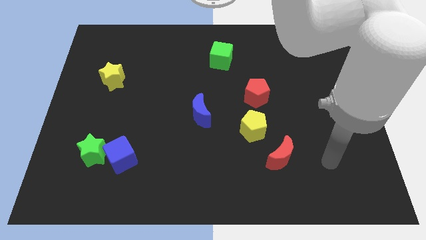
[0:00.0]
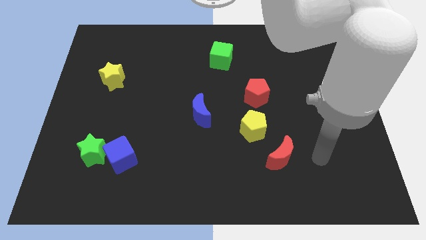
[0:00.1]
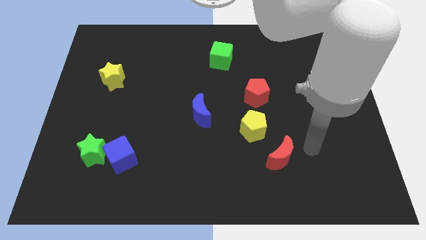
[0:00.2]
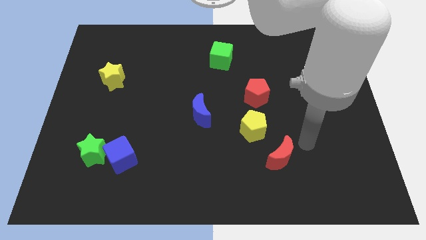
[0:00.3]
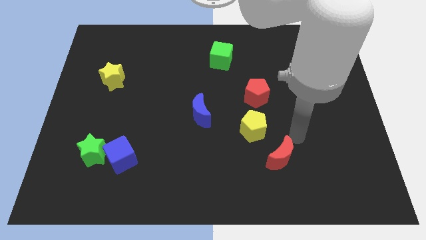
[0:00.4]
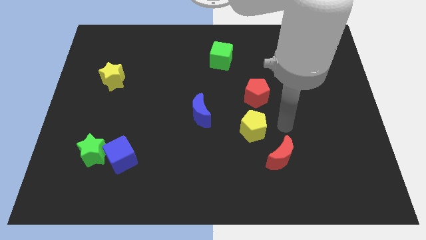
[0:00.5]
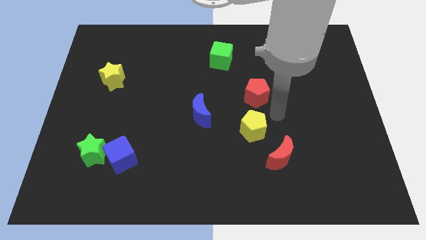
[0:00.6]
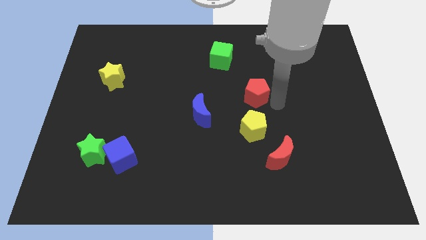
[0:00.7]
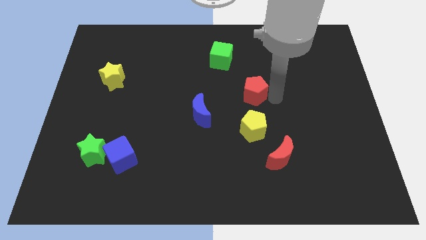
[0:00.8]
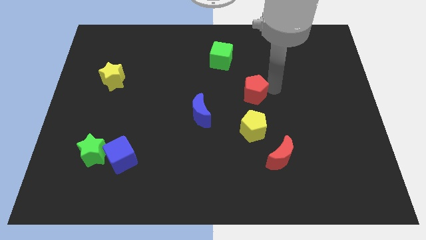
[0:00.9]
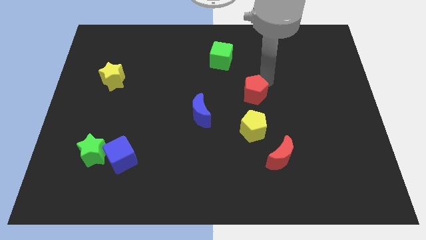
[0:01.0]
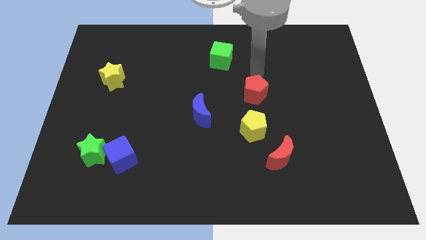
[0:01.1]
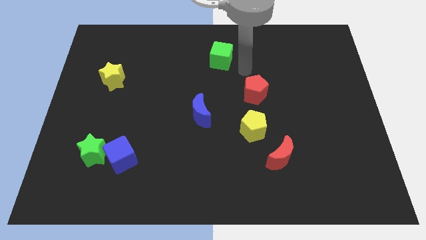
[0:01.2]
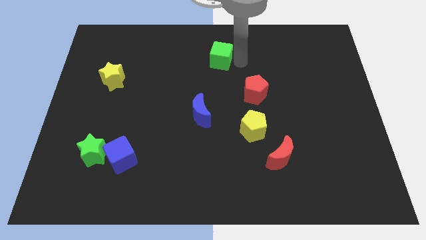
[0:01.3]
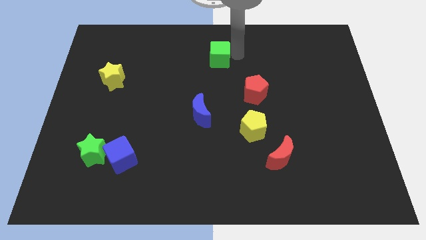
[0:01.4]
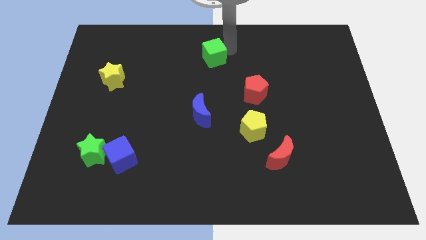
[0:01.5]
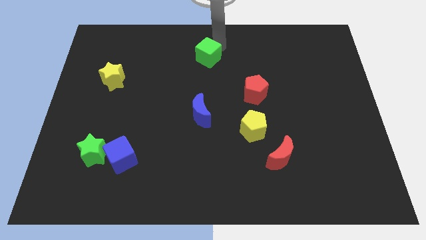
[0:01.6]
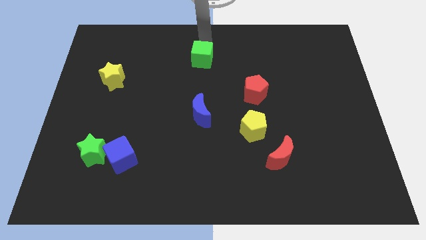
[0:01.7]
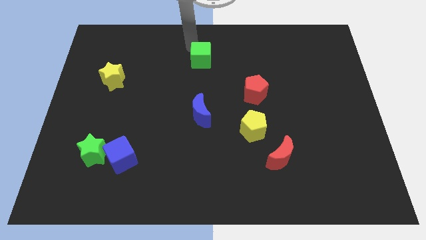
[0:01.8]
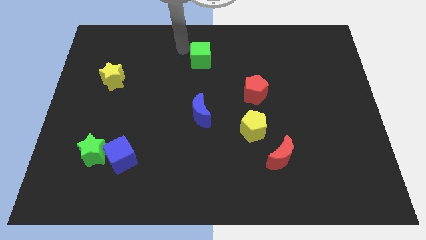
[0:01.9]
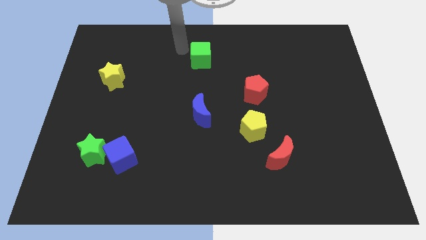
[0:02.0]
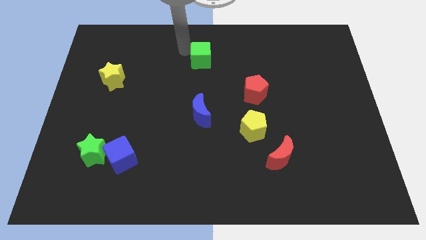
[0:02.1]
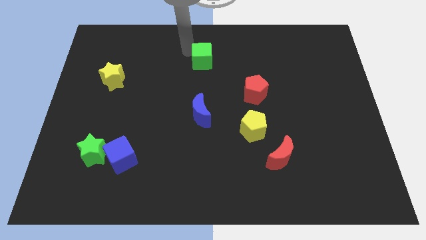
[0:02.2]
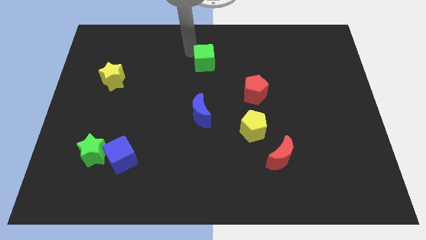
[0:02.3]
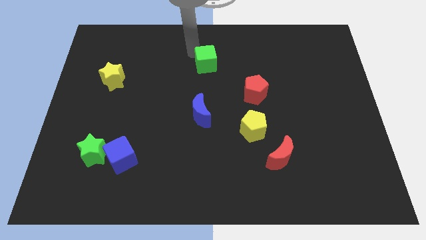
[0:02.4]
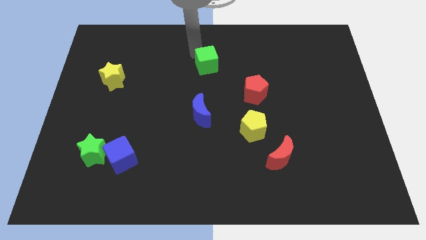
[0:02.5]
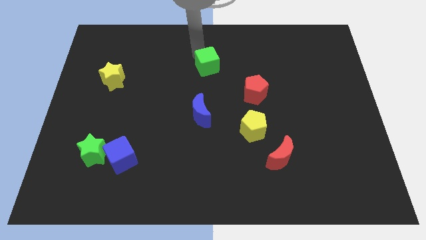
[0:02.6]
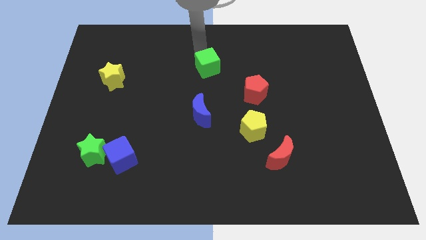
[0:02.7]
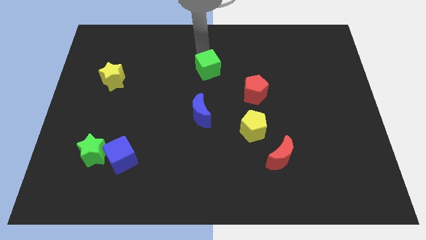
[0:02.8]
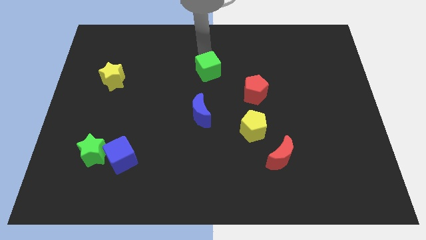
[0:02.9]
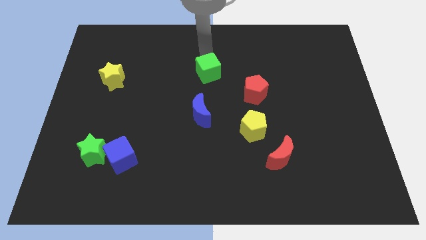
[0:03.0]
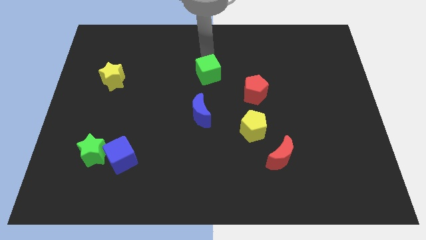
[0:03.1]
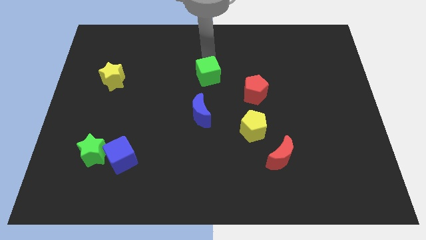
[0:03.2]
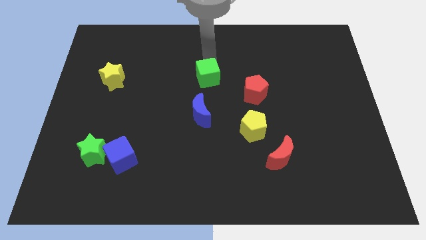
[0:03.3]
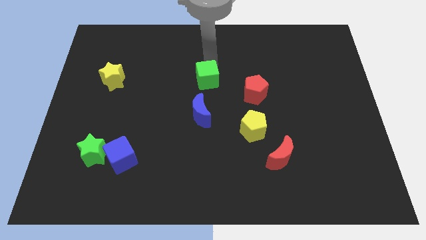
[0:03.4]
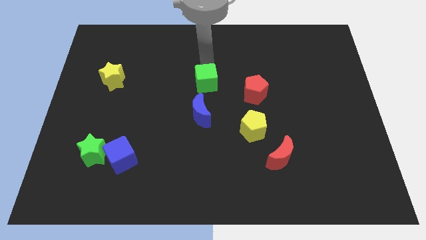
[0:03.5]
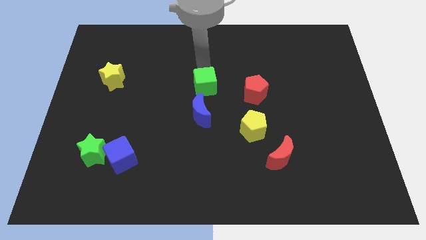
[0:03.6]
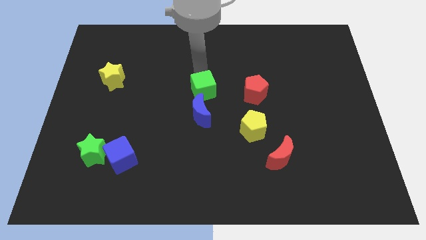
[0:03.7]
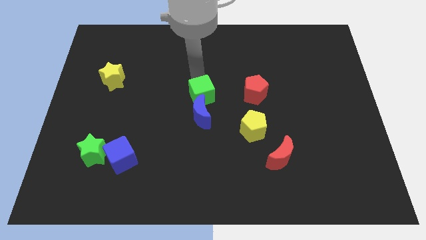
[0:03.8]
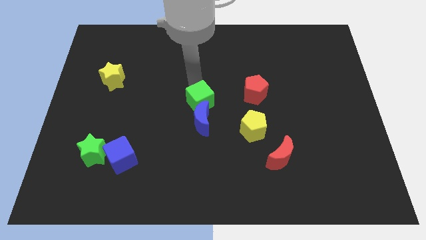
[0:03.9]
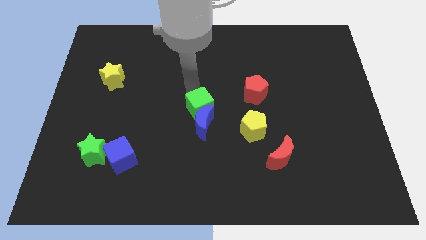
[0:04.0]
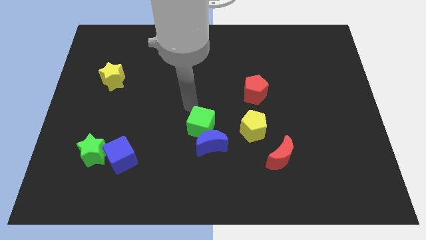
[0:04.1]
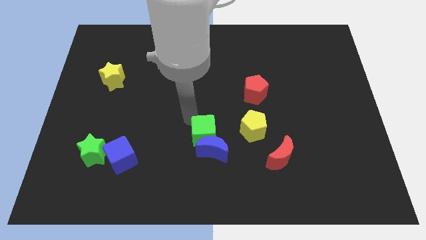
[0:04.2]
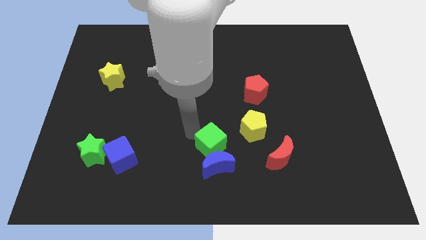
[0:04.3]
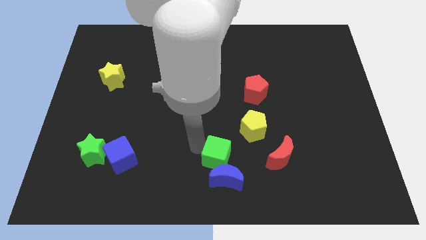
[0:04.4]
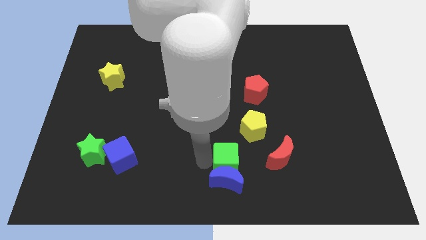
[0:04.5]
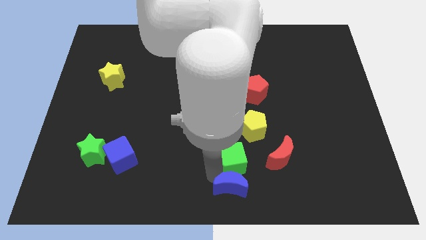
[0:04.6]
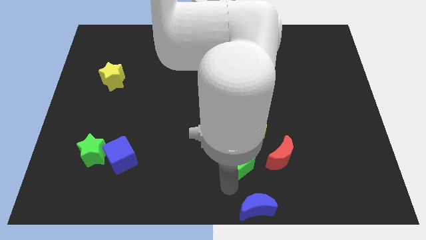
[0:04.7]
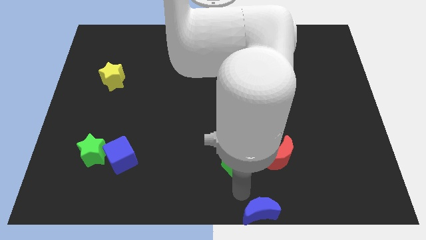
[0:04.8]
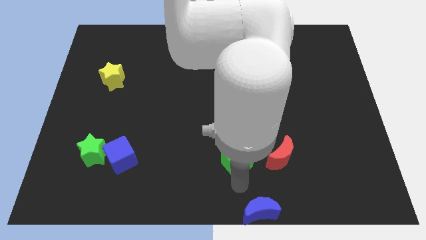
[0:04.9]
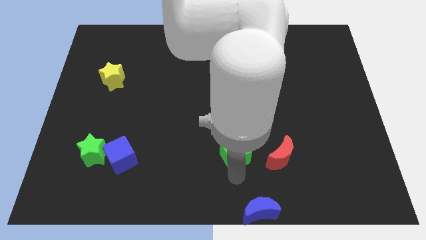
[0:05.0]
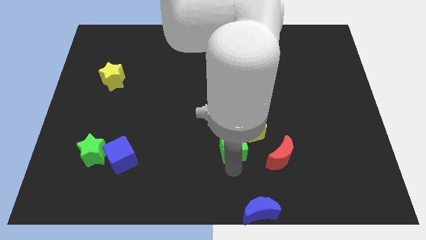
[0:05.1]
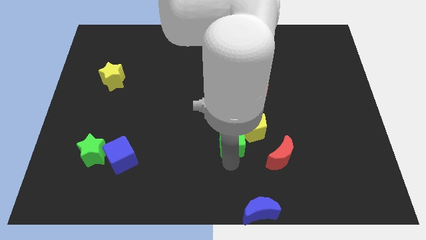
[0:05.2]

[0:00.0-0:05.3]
slide the green cube towards the yellow pentagon

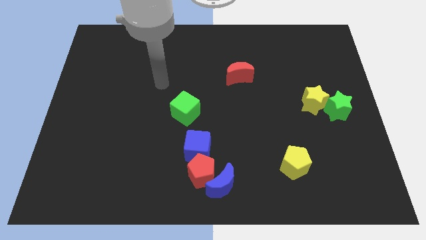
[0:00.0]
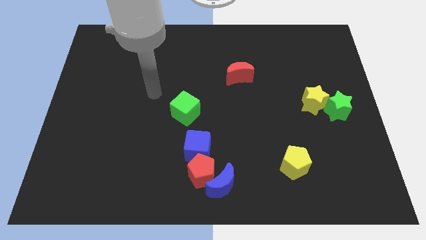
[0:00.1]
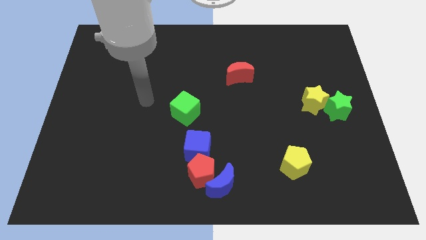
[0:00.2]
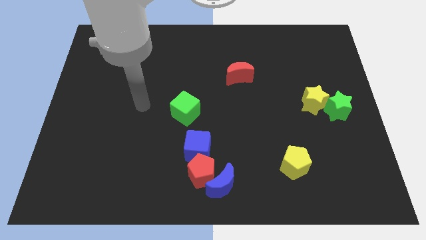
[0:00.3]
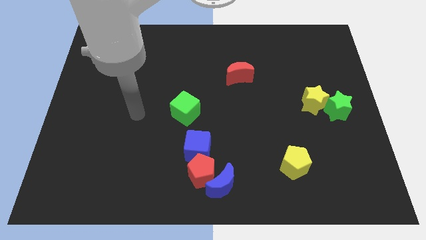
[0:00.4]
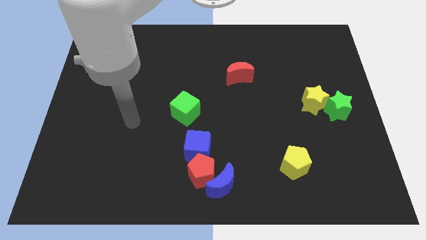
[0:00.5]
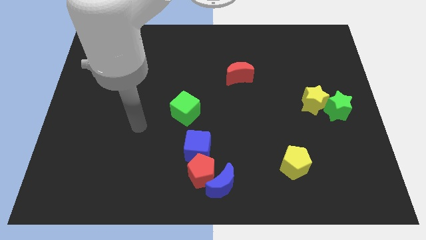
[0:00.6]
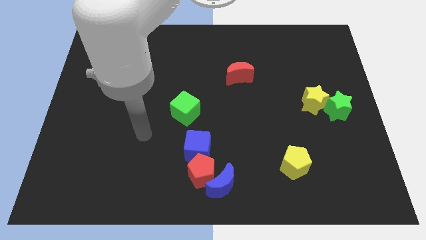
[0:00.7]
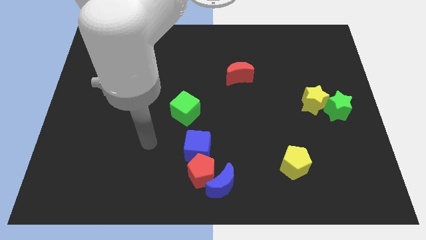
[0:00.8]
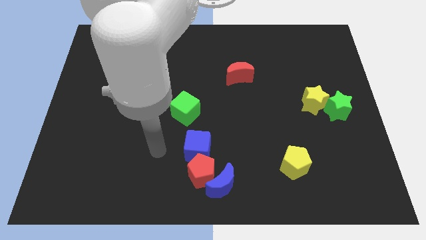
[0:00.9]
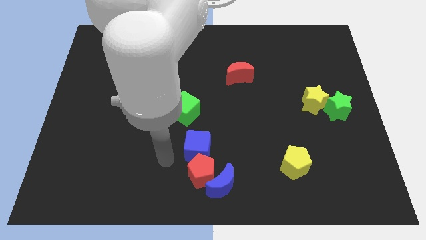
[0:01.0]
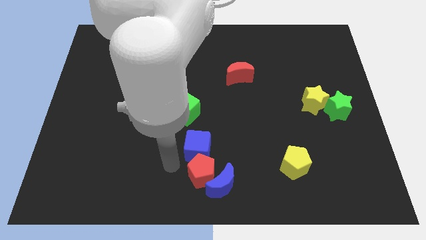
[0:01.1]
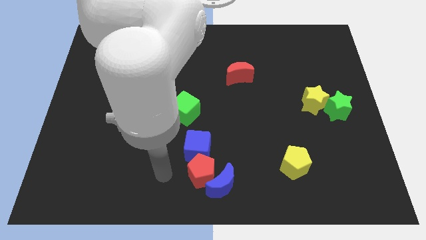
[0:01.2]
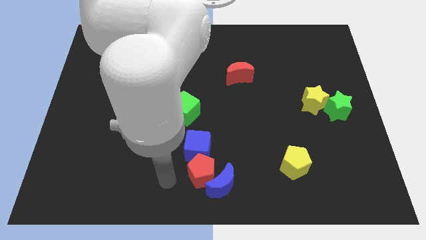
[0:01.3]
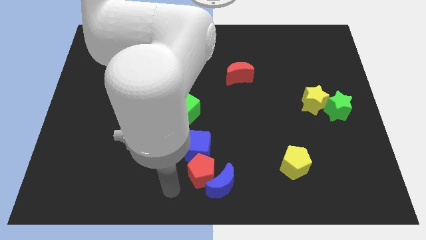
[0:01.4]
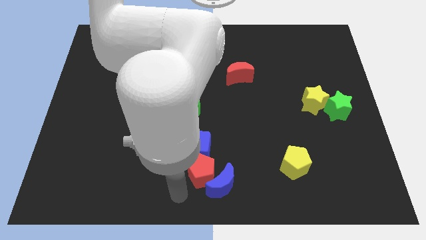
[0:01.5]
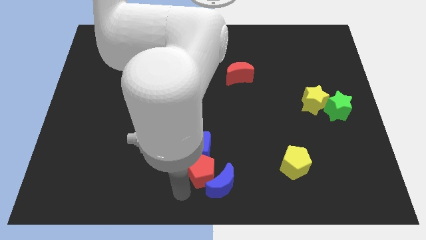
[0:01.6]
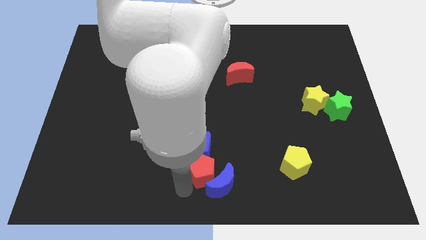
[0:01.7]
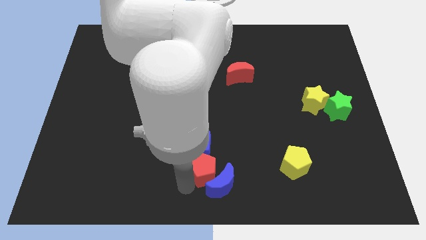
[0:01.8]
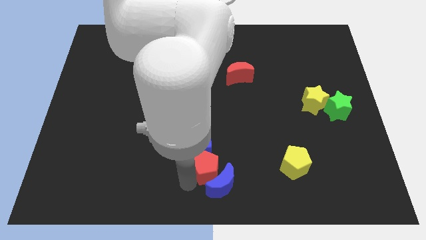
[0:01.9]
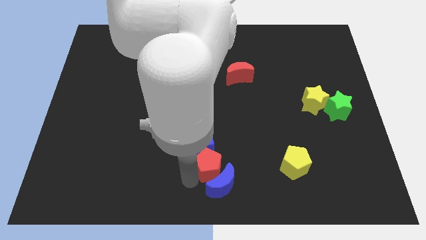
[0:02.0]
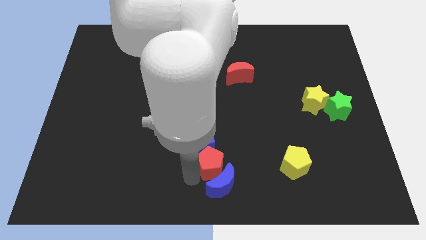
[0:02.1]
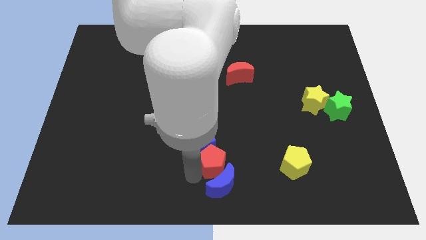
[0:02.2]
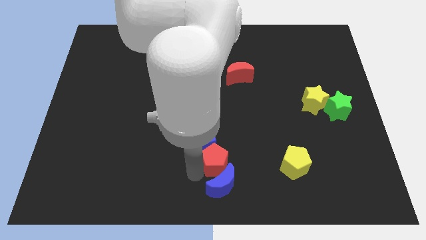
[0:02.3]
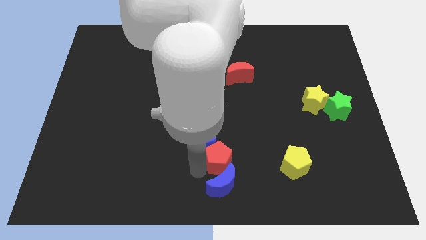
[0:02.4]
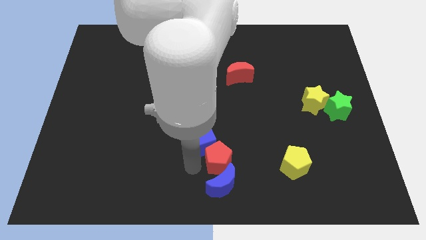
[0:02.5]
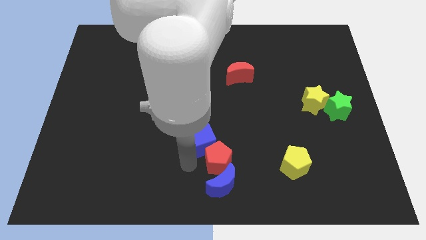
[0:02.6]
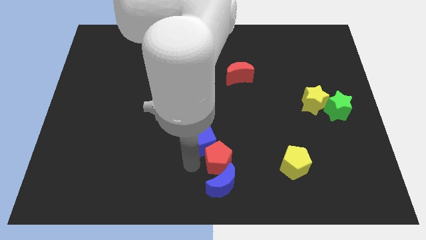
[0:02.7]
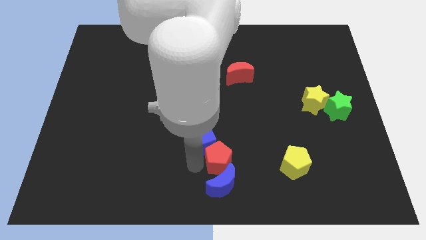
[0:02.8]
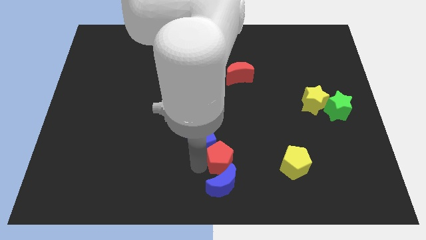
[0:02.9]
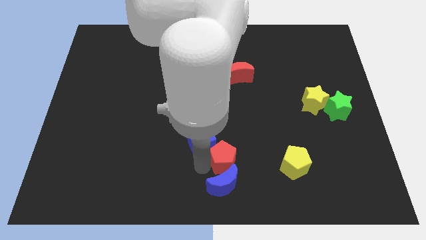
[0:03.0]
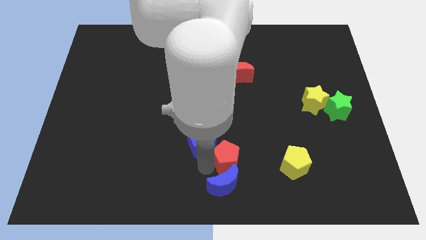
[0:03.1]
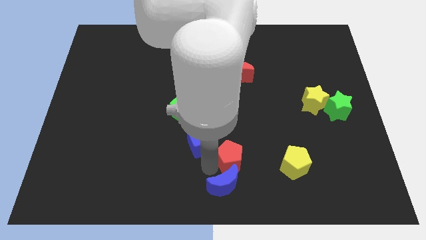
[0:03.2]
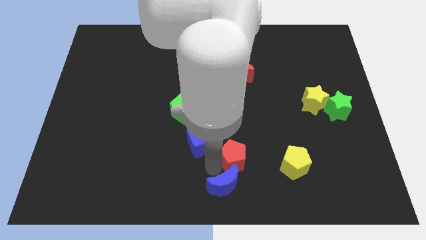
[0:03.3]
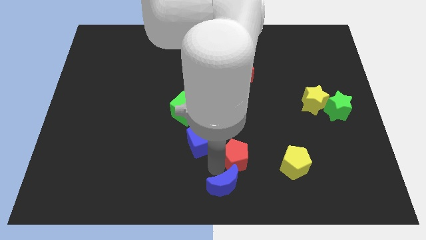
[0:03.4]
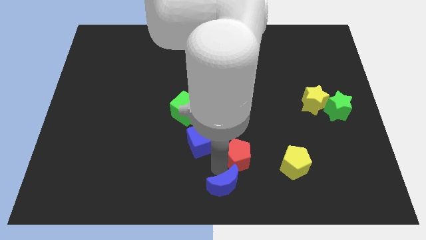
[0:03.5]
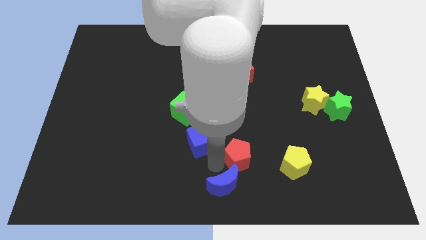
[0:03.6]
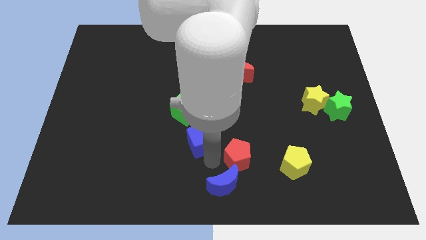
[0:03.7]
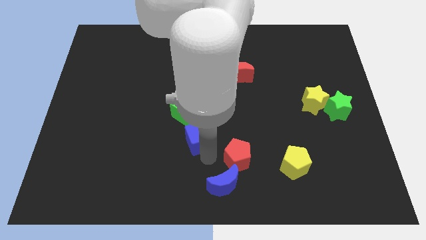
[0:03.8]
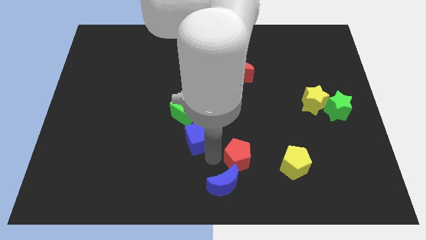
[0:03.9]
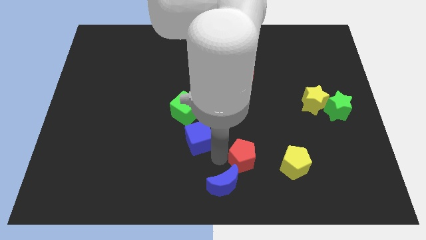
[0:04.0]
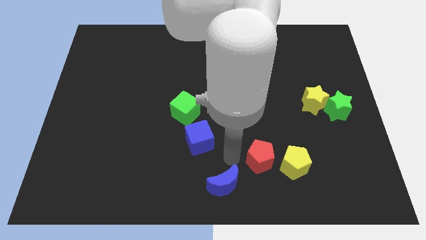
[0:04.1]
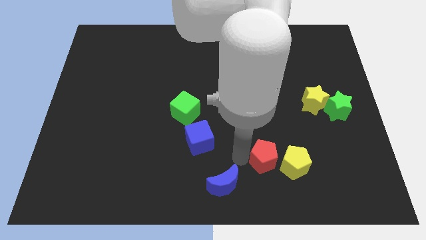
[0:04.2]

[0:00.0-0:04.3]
put the red pentagon next to the yellow pentagon
